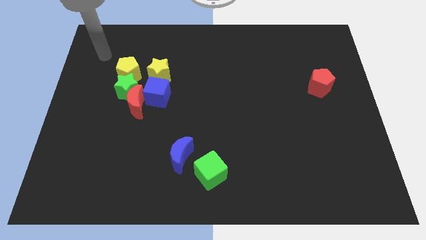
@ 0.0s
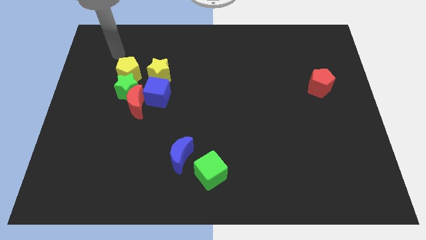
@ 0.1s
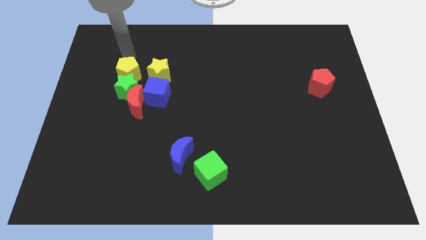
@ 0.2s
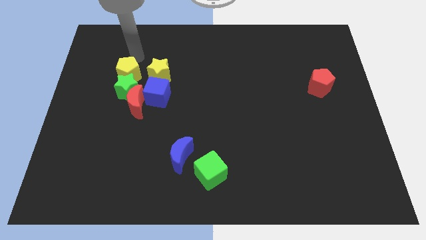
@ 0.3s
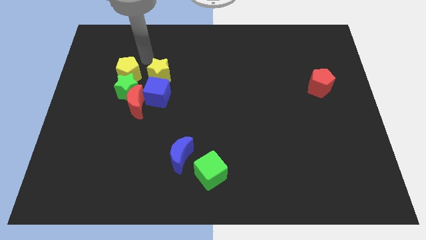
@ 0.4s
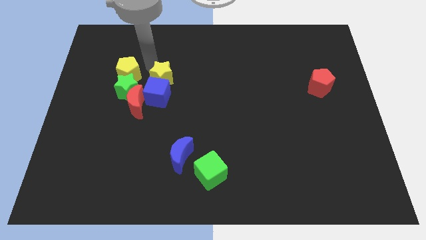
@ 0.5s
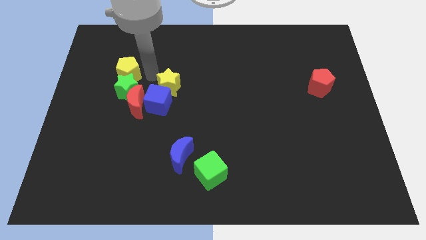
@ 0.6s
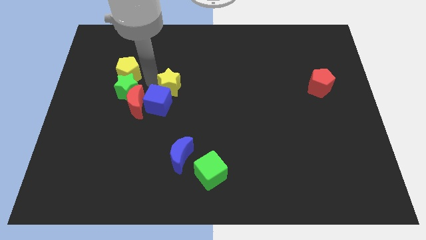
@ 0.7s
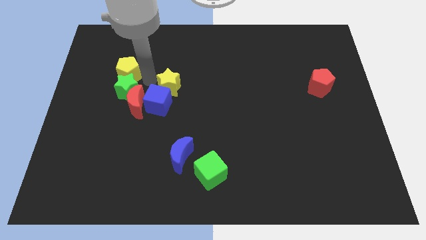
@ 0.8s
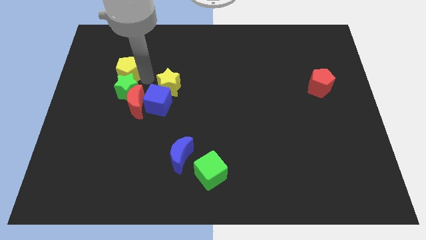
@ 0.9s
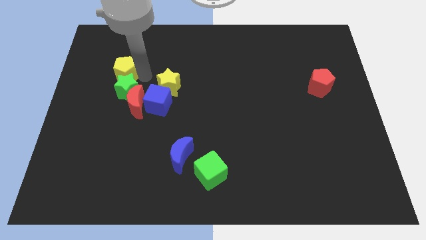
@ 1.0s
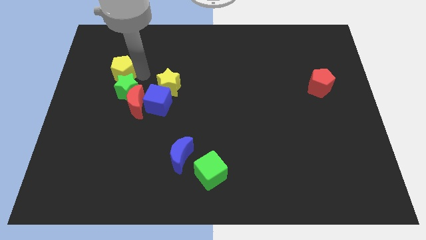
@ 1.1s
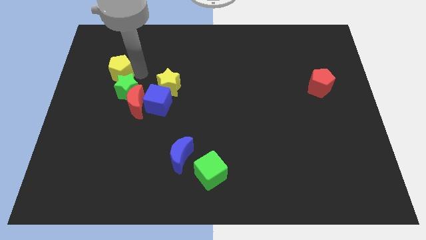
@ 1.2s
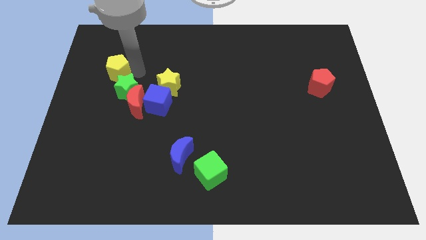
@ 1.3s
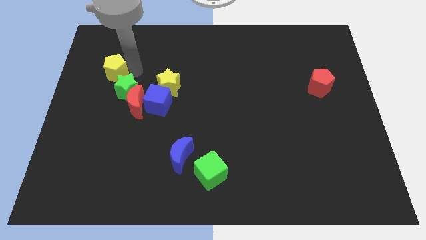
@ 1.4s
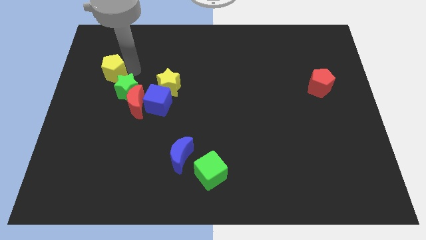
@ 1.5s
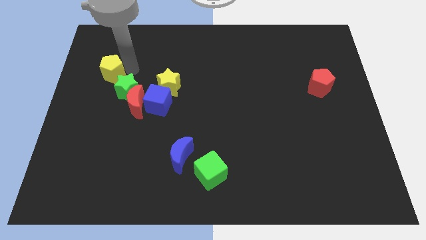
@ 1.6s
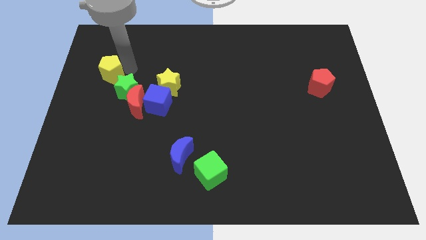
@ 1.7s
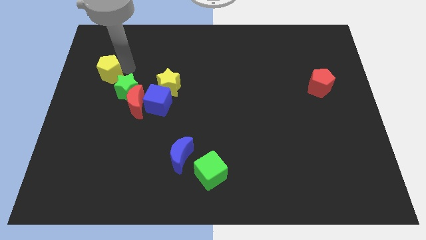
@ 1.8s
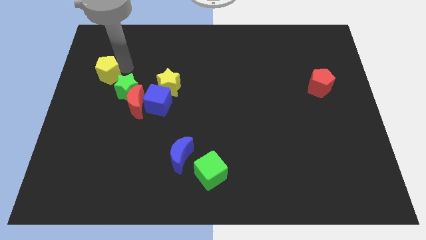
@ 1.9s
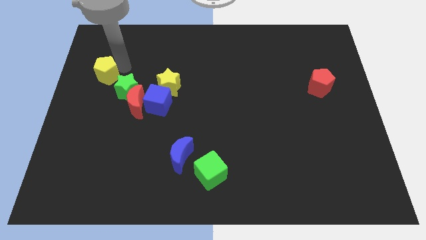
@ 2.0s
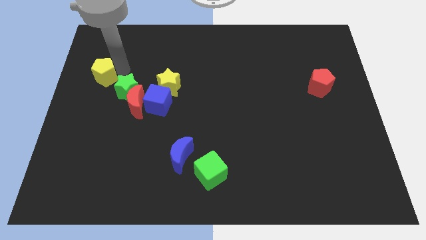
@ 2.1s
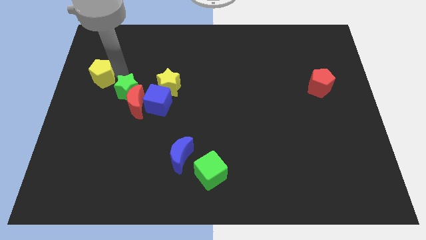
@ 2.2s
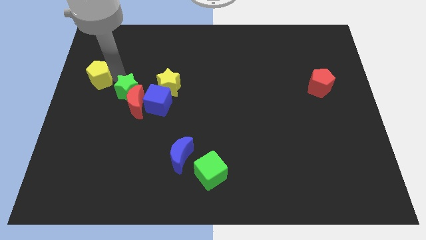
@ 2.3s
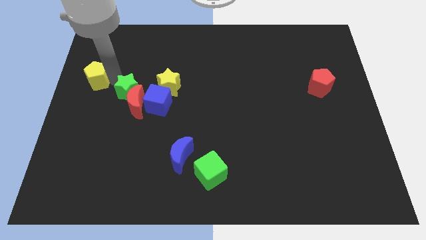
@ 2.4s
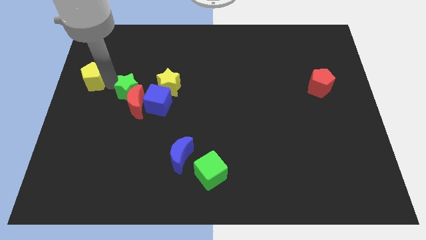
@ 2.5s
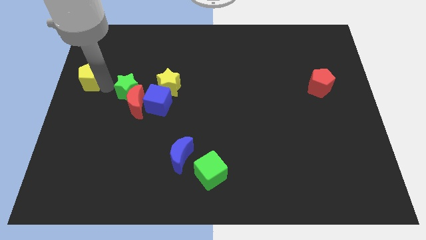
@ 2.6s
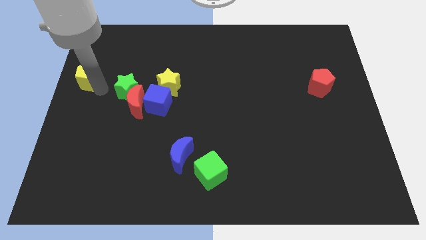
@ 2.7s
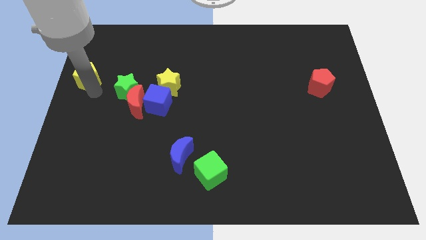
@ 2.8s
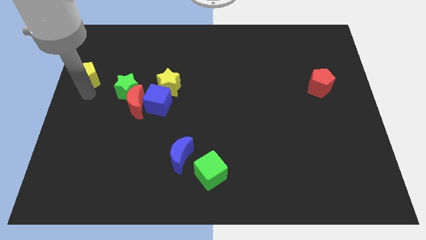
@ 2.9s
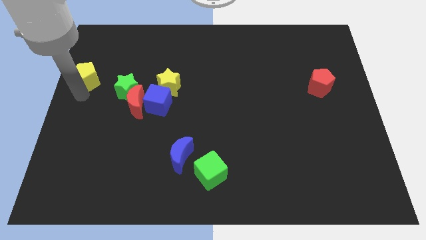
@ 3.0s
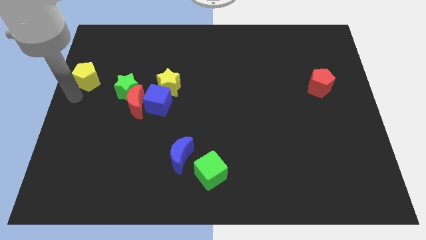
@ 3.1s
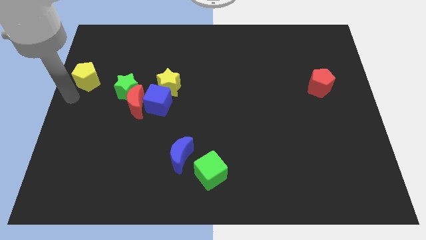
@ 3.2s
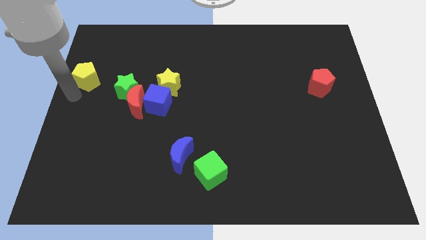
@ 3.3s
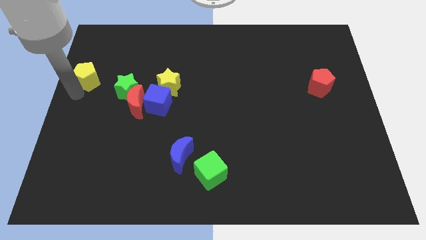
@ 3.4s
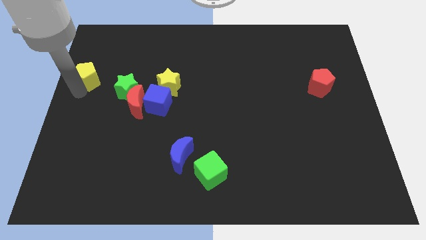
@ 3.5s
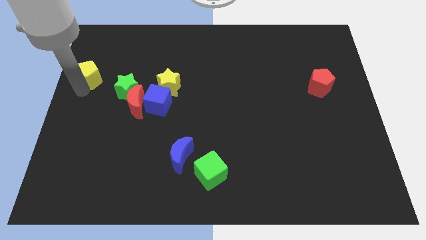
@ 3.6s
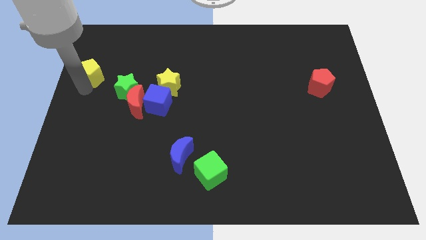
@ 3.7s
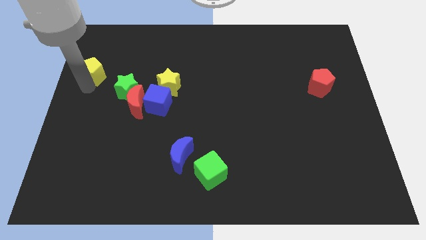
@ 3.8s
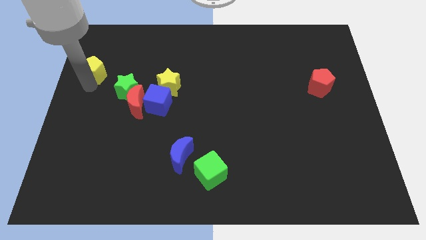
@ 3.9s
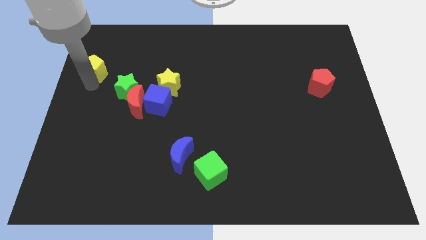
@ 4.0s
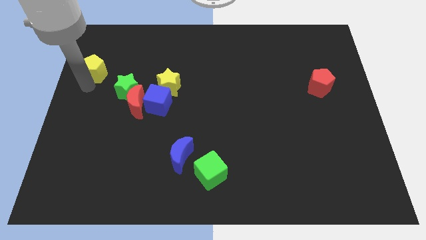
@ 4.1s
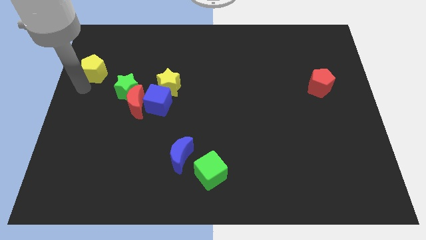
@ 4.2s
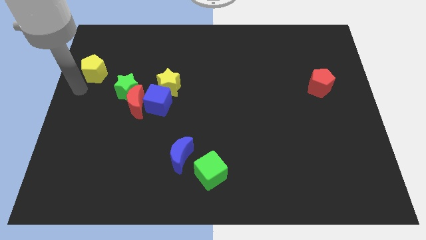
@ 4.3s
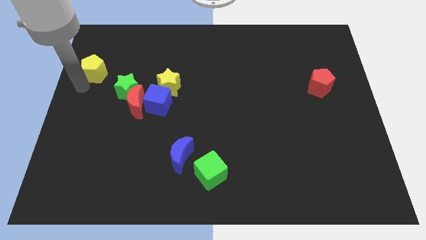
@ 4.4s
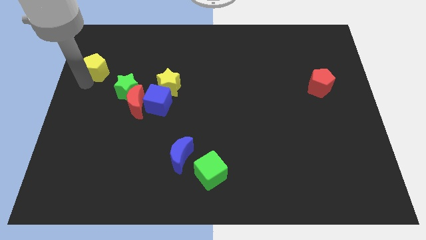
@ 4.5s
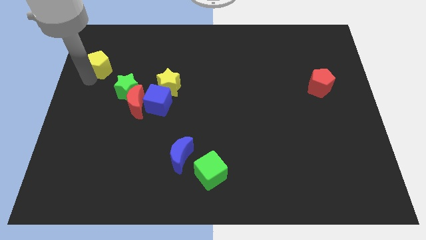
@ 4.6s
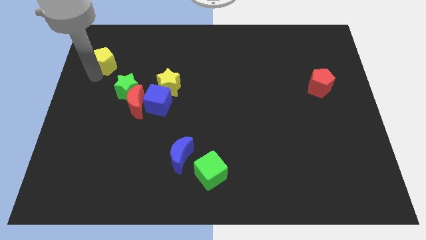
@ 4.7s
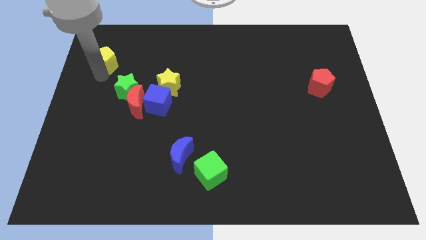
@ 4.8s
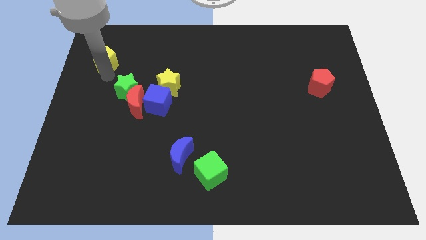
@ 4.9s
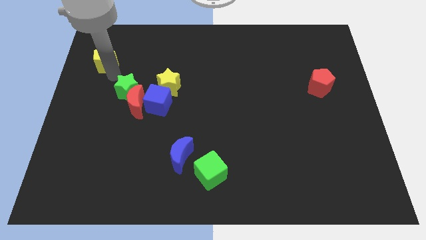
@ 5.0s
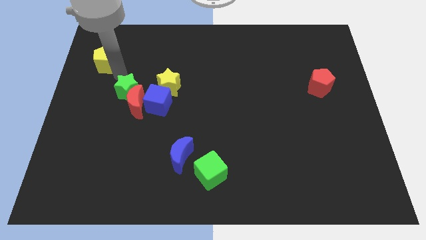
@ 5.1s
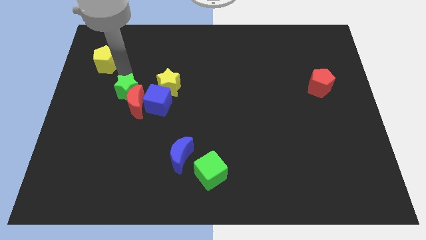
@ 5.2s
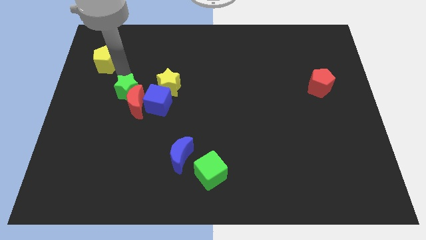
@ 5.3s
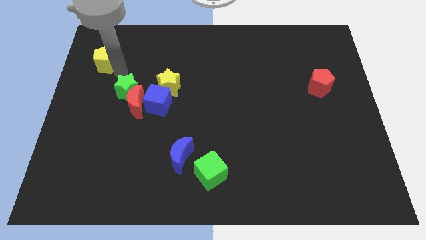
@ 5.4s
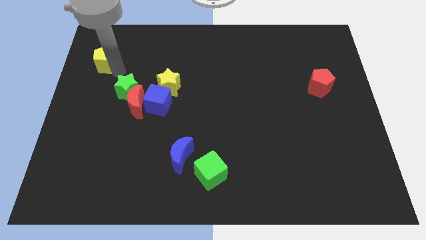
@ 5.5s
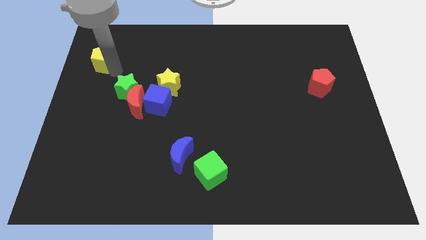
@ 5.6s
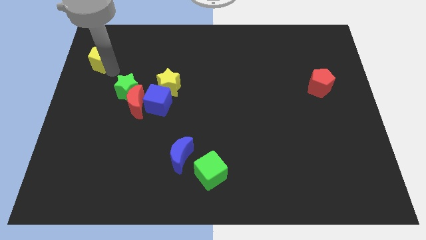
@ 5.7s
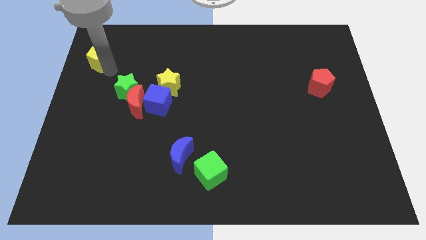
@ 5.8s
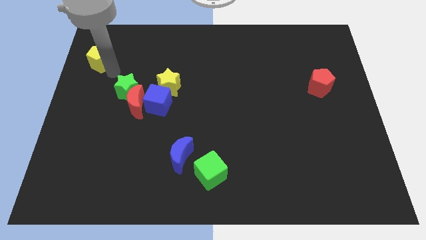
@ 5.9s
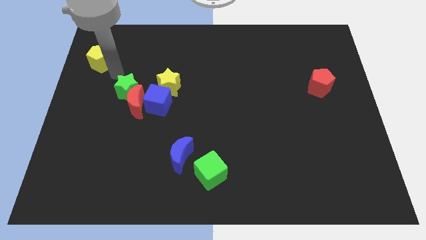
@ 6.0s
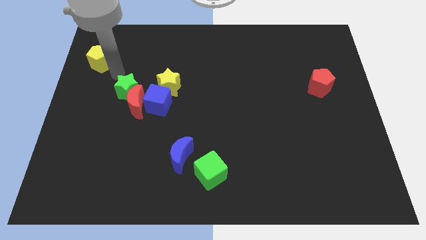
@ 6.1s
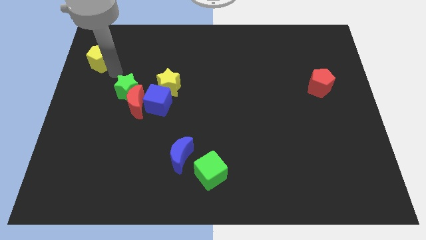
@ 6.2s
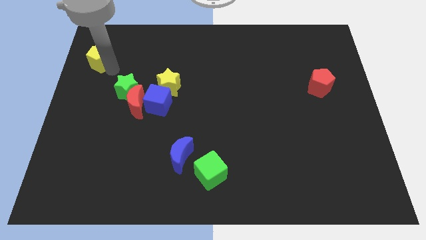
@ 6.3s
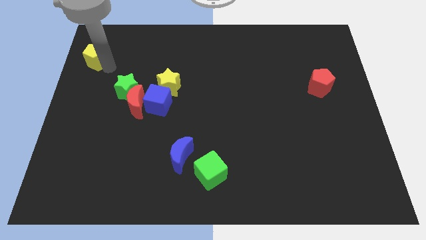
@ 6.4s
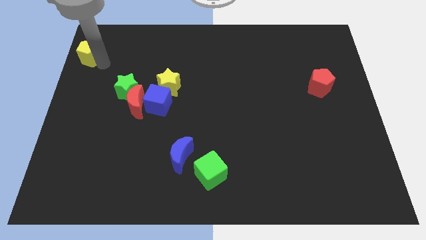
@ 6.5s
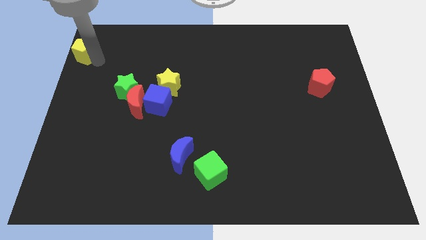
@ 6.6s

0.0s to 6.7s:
slide the yellow pentagon to the top left corner
